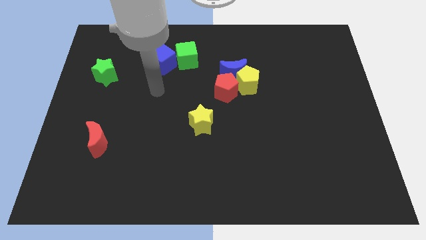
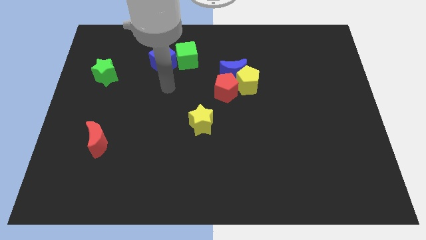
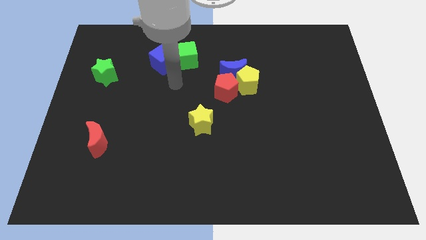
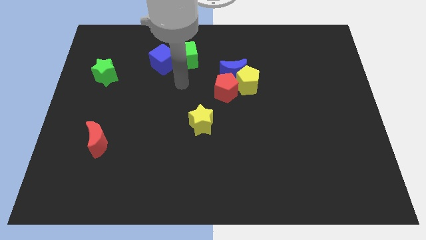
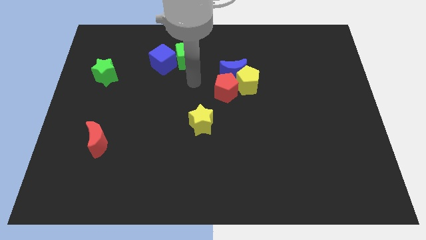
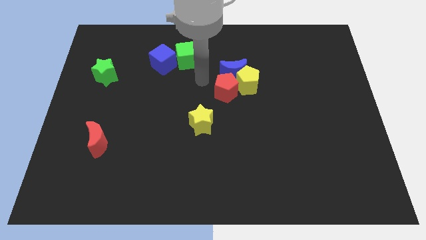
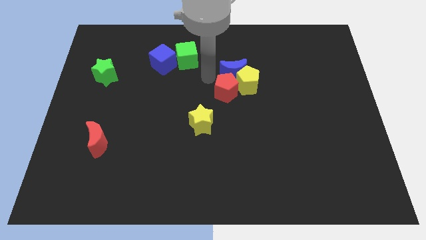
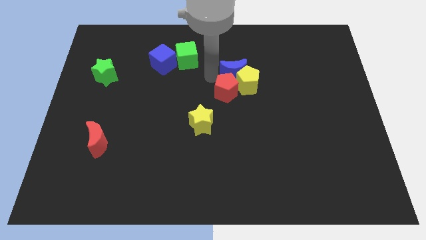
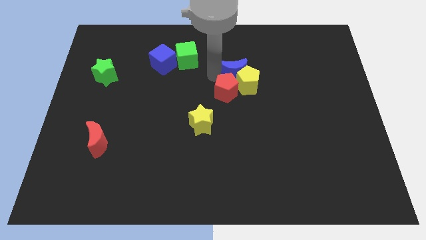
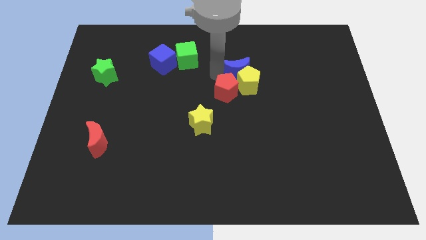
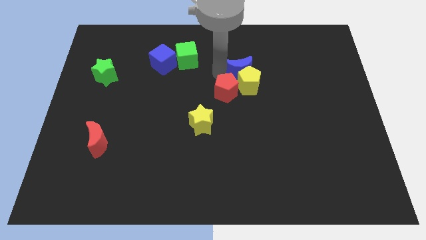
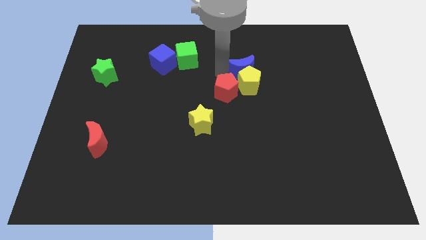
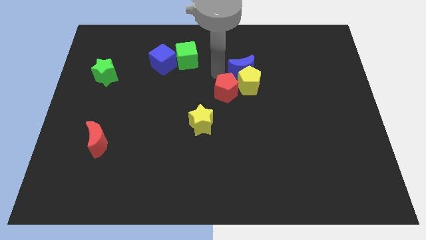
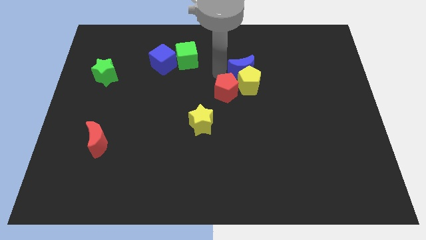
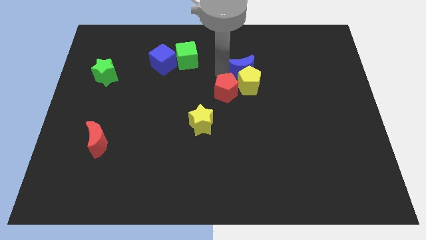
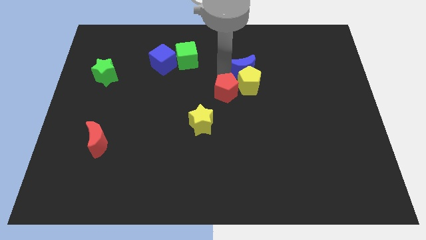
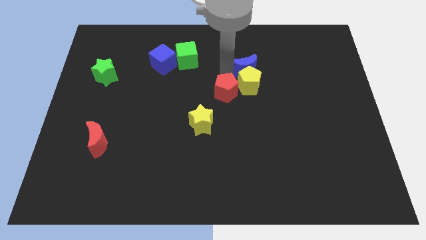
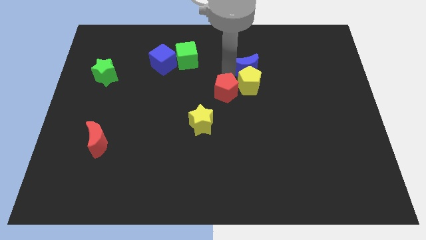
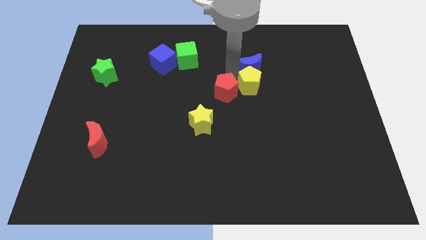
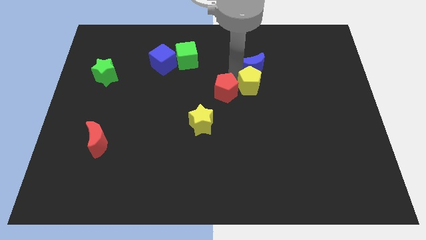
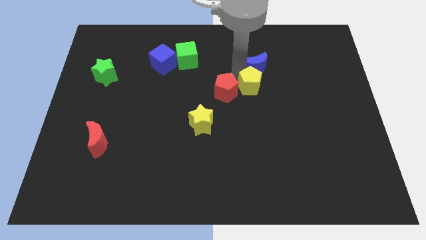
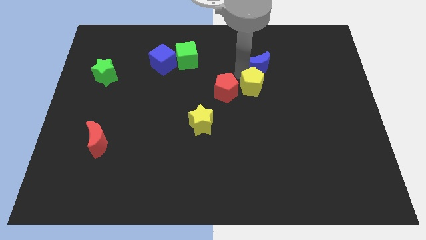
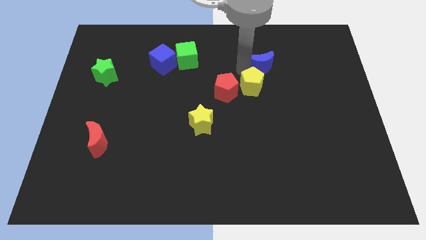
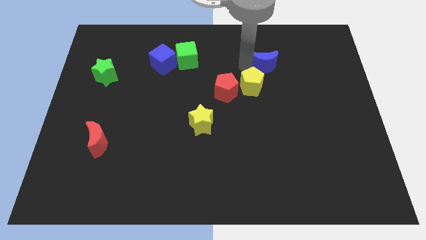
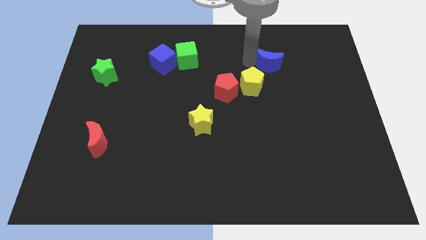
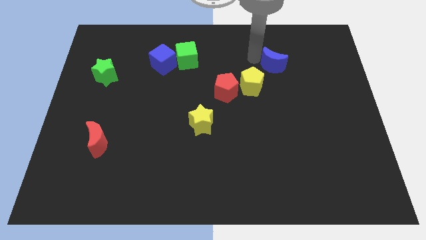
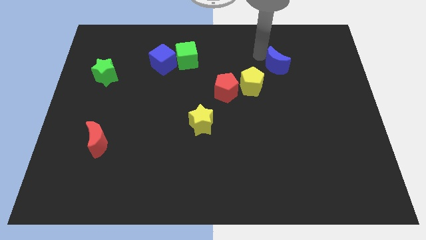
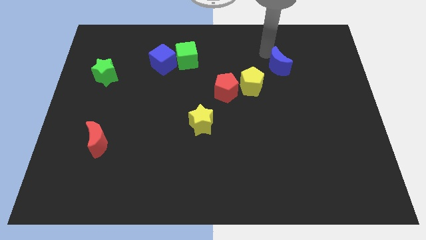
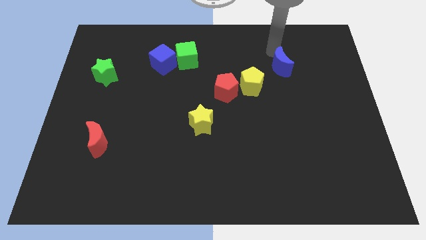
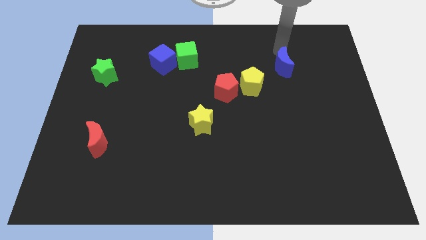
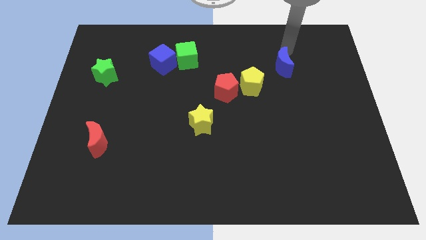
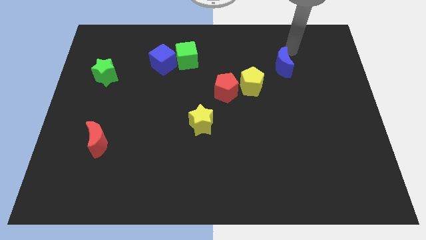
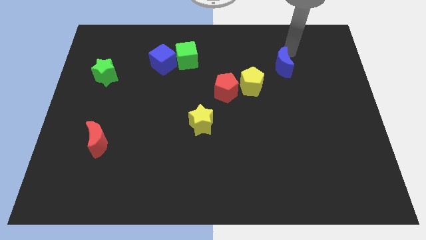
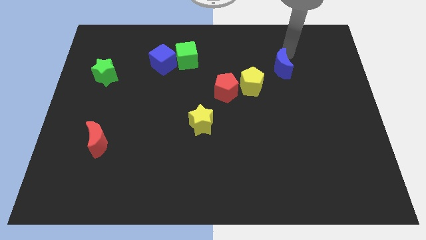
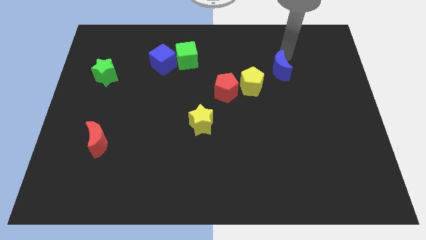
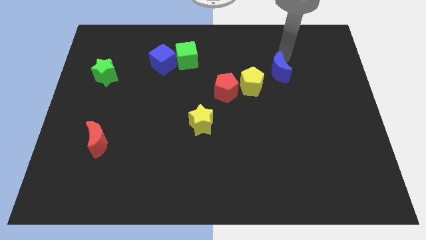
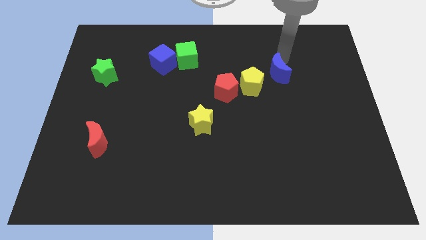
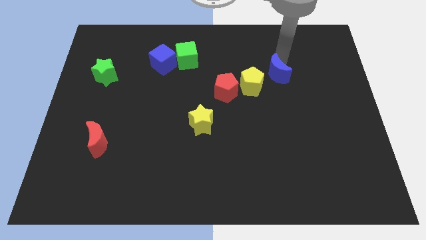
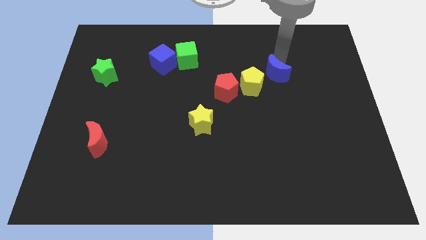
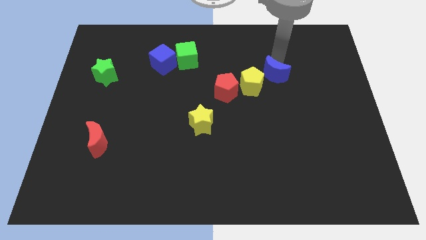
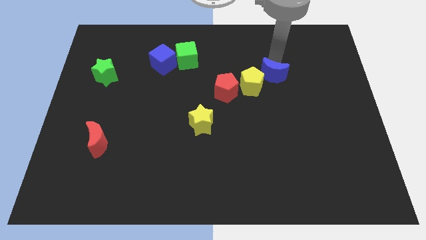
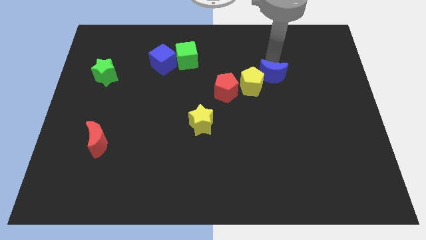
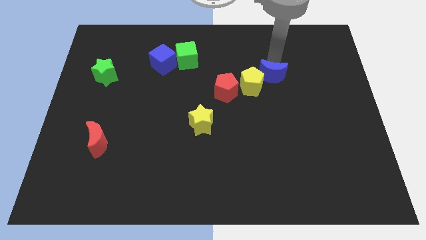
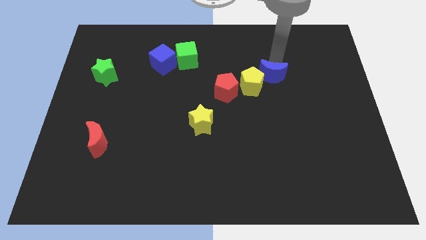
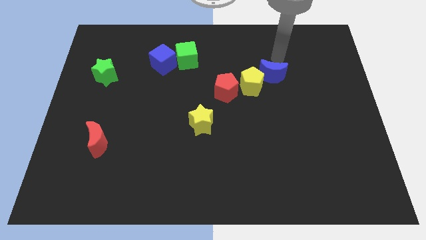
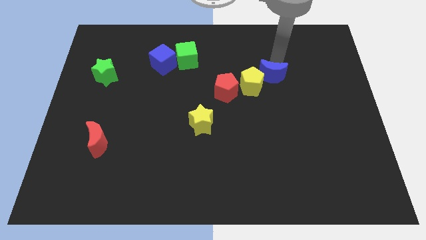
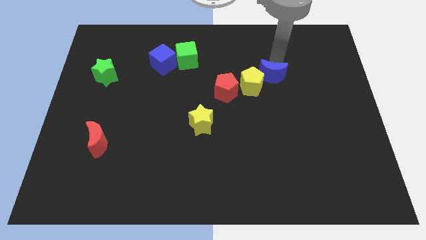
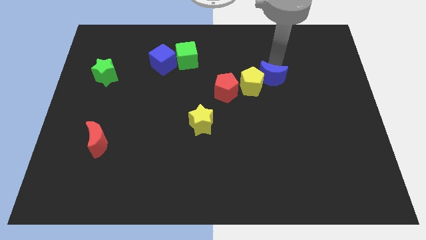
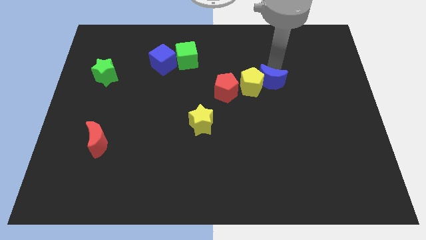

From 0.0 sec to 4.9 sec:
slightly push the blue moon downwards and then right

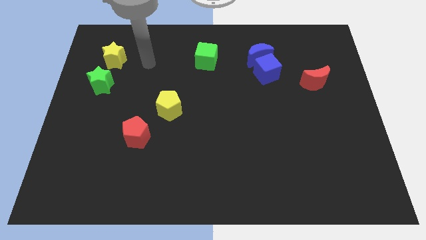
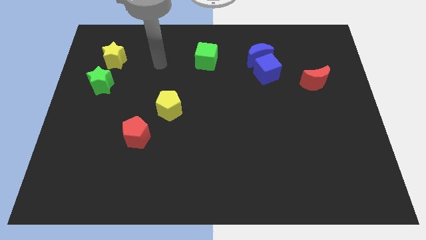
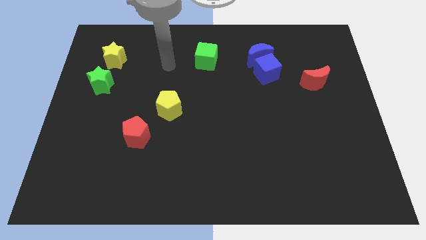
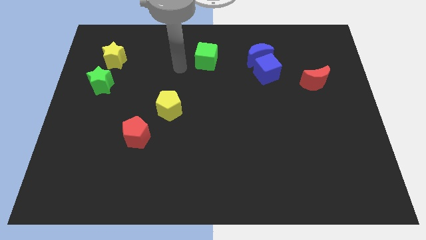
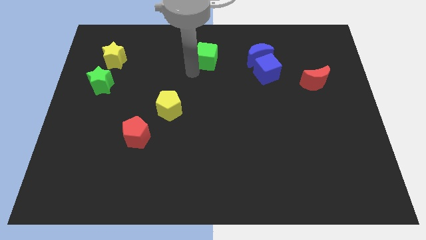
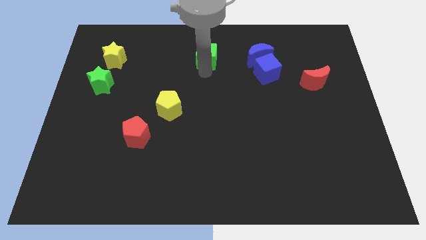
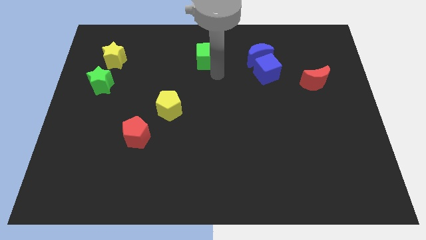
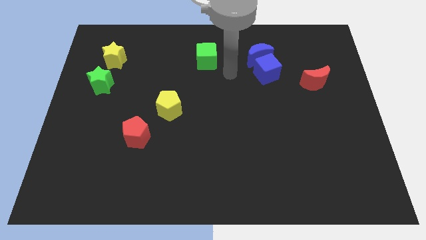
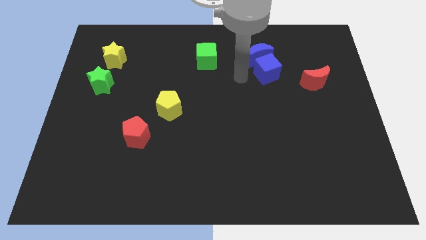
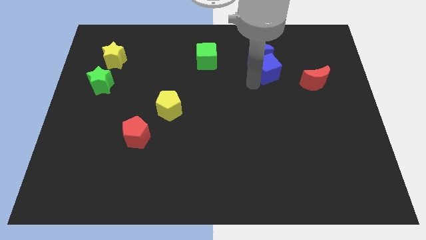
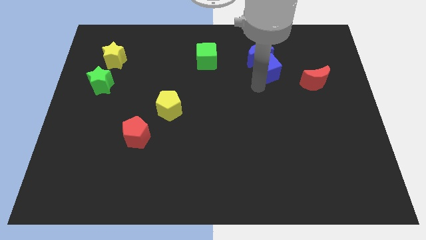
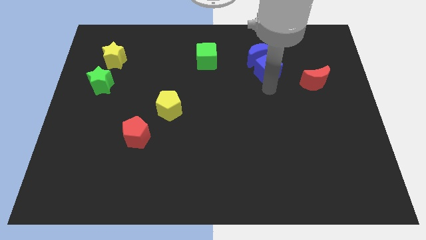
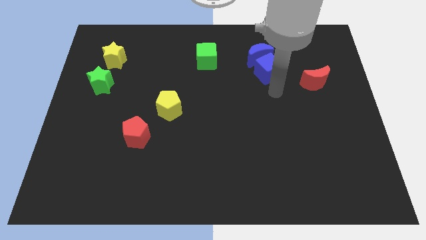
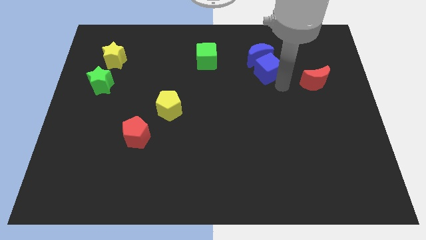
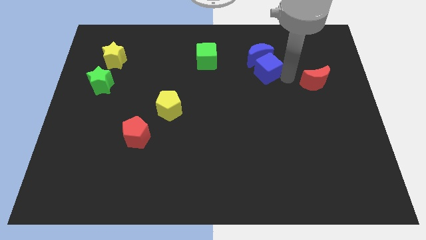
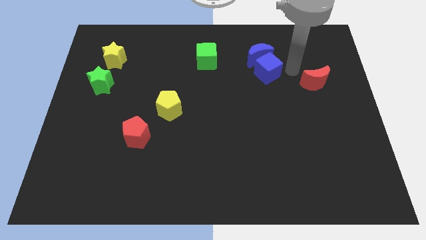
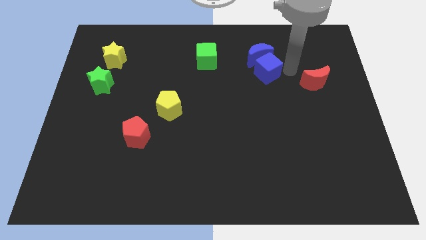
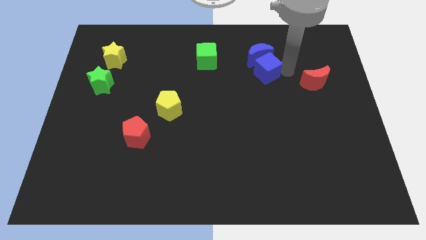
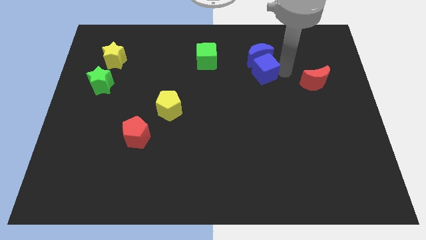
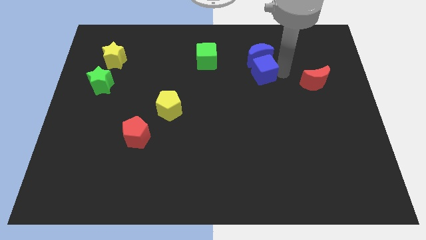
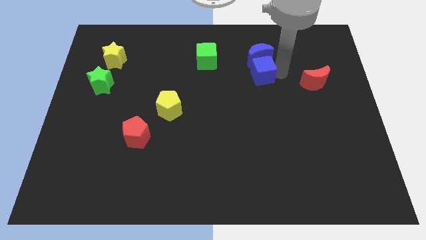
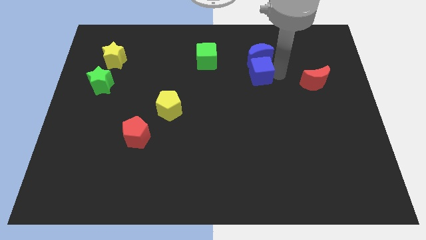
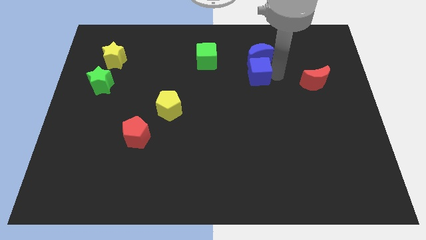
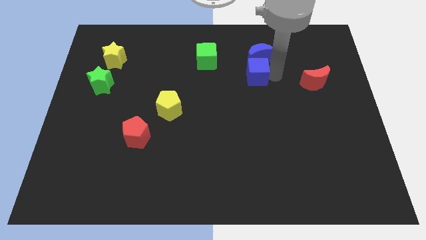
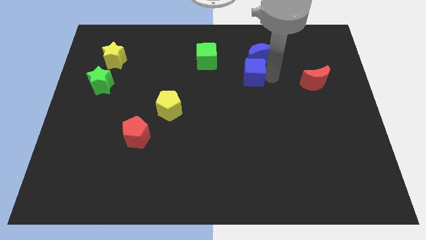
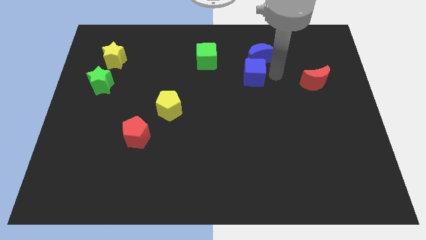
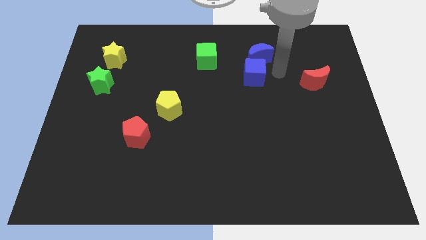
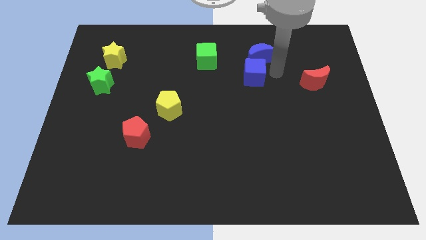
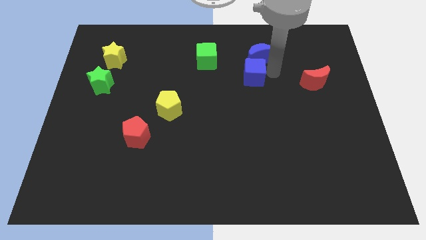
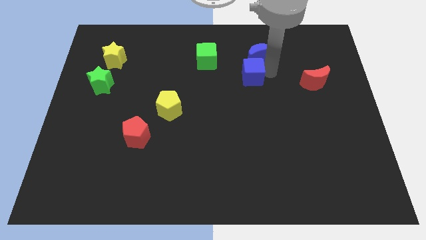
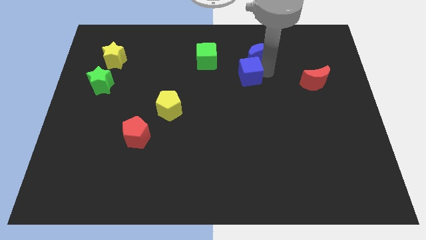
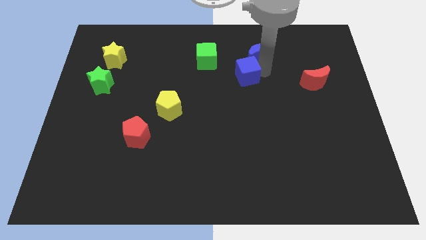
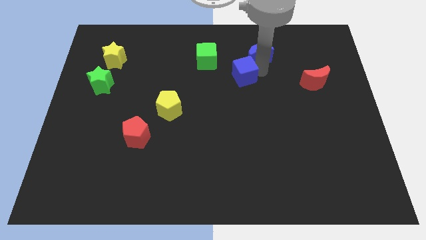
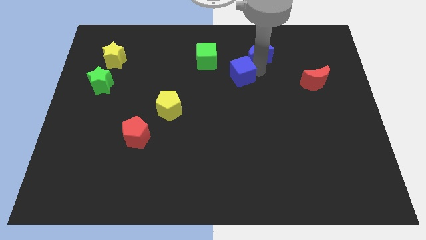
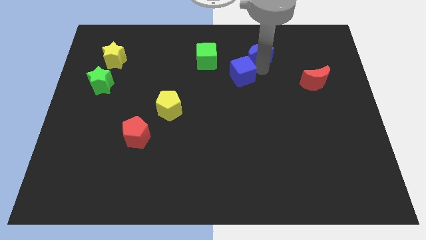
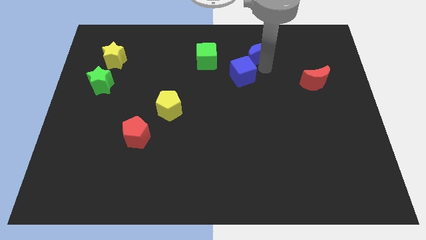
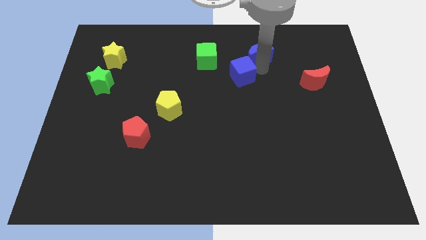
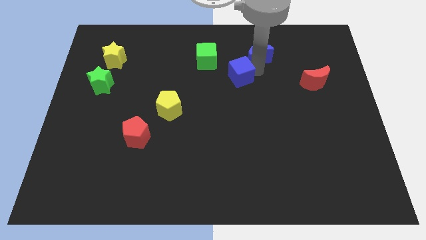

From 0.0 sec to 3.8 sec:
move the blue cube a little bit to the left
